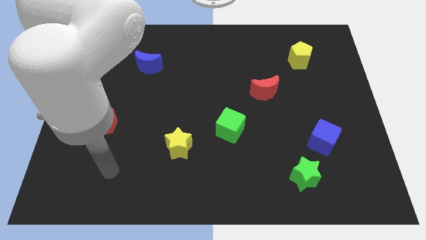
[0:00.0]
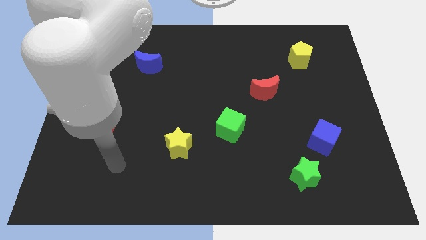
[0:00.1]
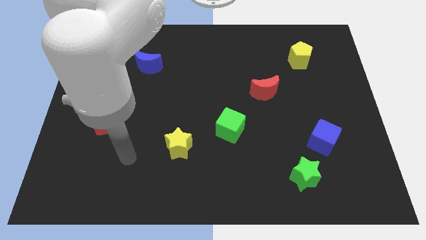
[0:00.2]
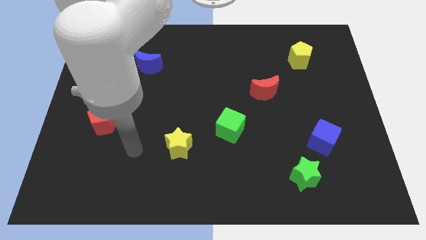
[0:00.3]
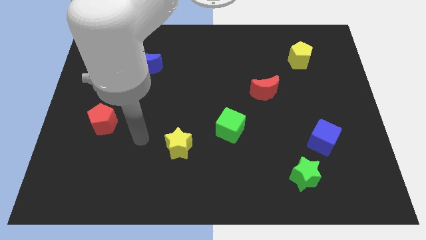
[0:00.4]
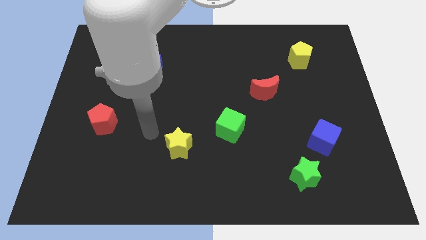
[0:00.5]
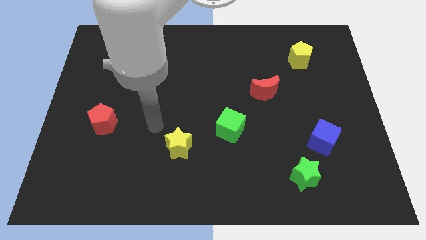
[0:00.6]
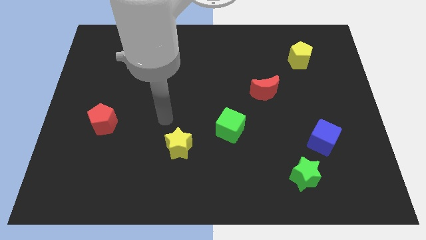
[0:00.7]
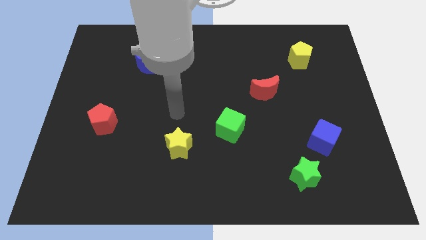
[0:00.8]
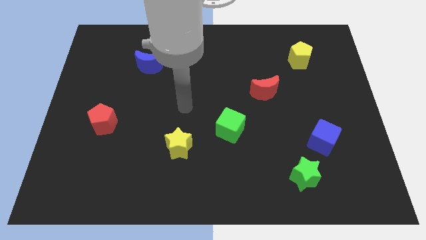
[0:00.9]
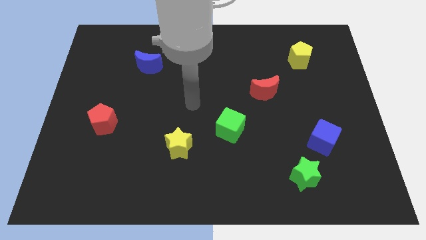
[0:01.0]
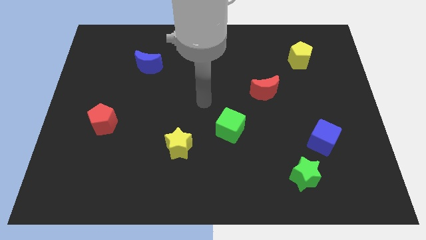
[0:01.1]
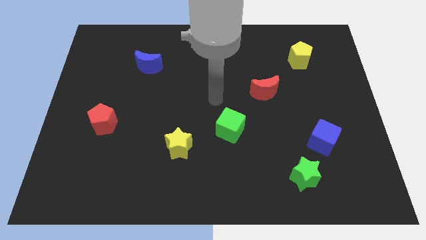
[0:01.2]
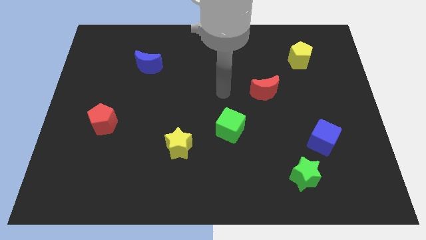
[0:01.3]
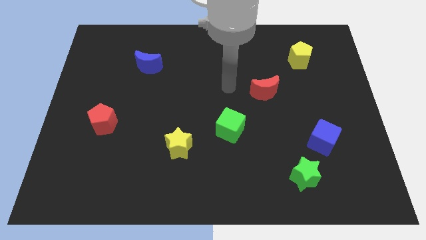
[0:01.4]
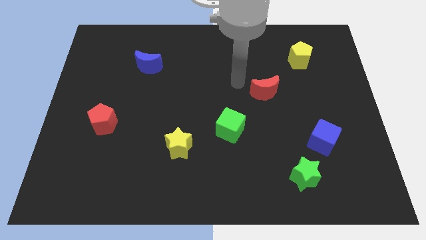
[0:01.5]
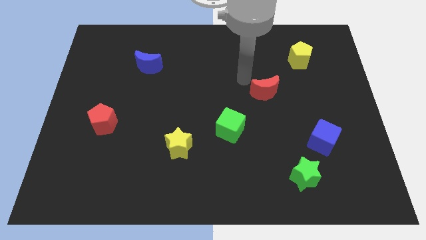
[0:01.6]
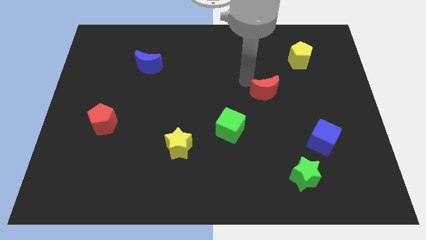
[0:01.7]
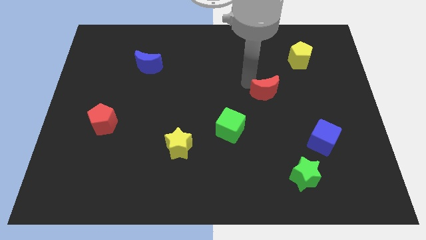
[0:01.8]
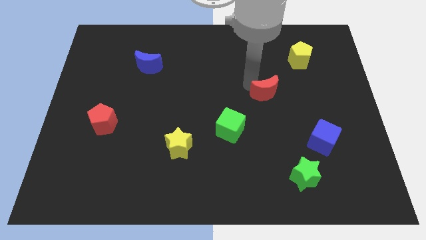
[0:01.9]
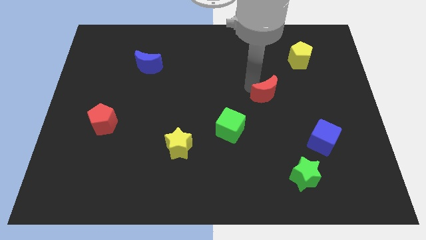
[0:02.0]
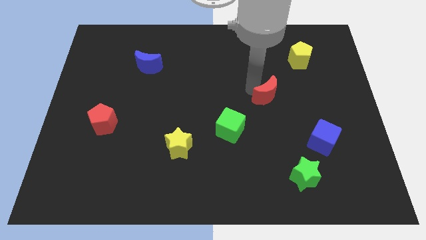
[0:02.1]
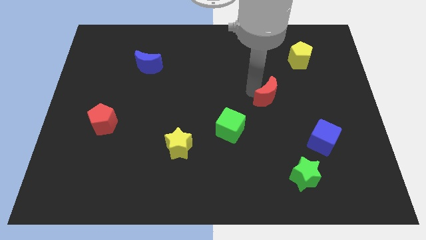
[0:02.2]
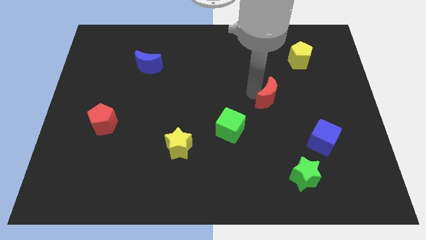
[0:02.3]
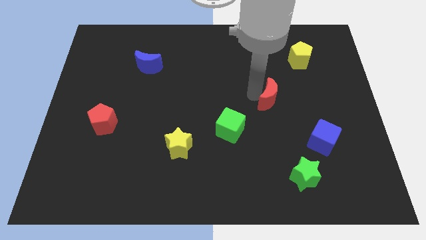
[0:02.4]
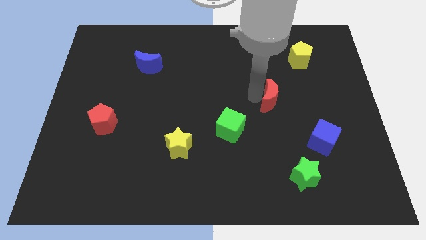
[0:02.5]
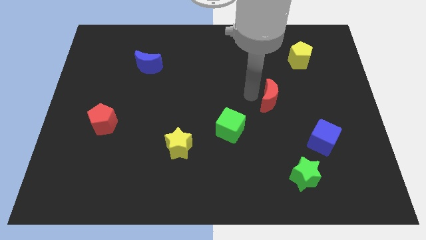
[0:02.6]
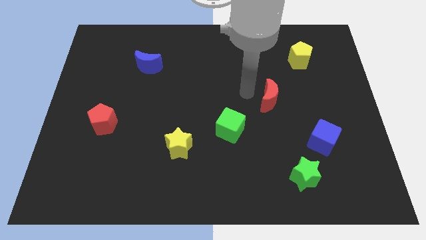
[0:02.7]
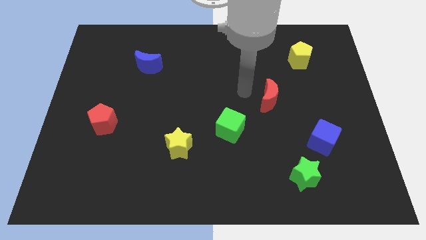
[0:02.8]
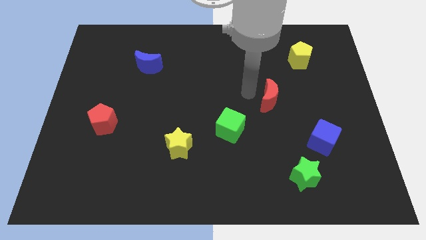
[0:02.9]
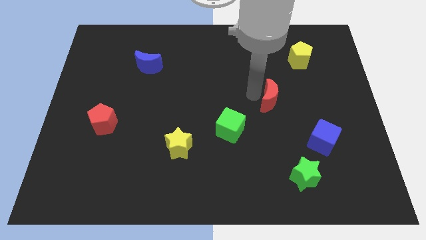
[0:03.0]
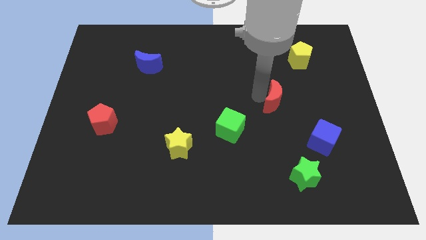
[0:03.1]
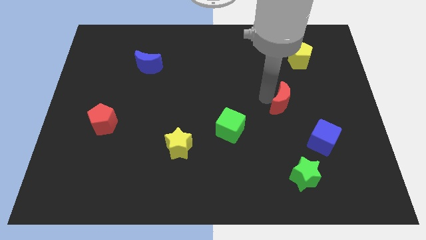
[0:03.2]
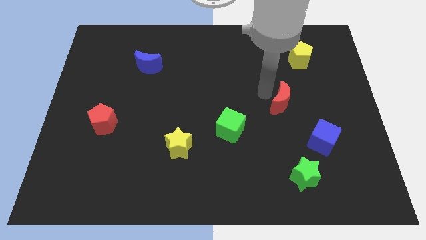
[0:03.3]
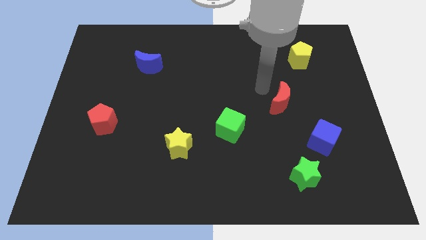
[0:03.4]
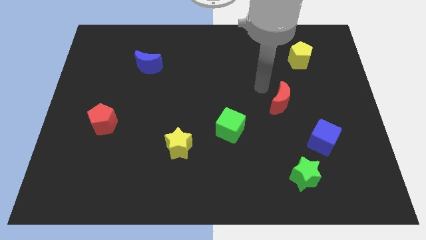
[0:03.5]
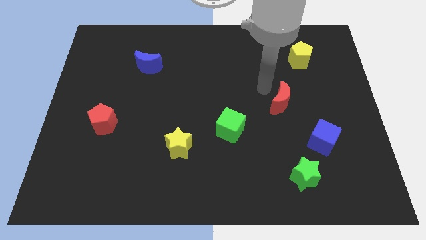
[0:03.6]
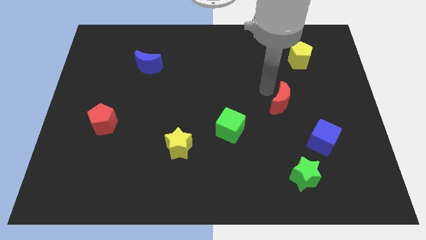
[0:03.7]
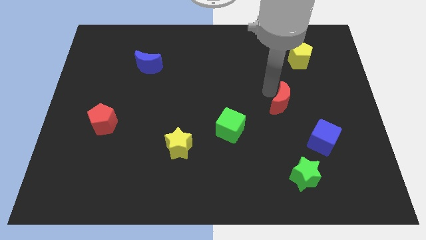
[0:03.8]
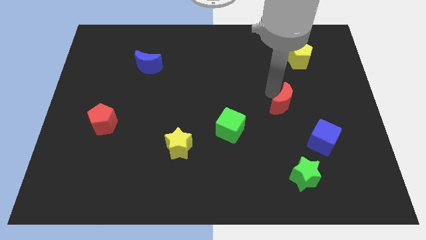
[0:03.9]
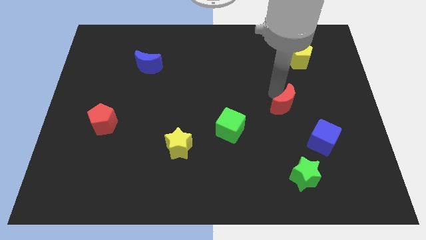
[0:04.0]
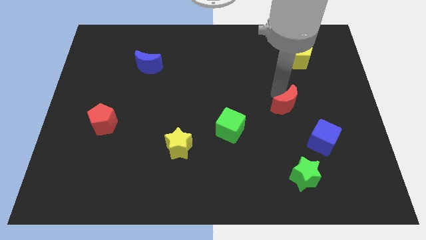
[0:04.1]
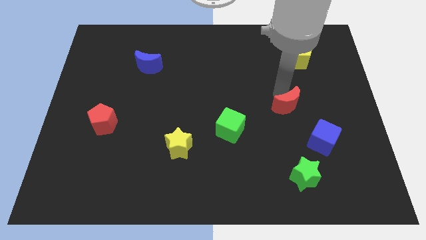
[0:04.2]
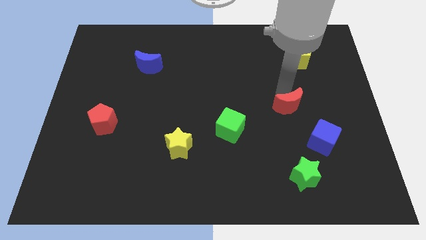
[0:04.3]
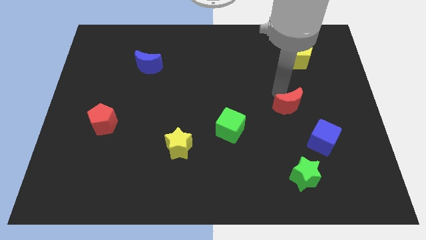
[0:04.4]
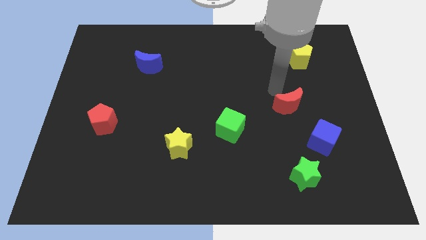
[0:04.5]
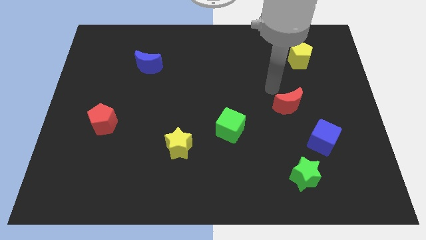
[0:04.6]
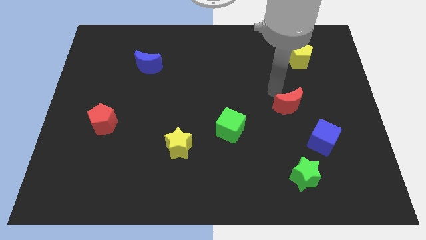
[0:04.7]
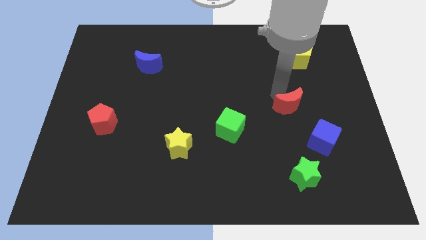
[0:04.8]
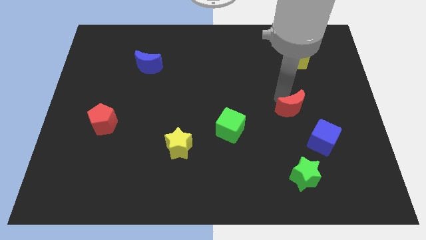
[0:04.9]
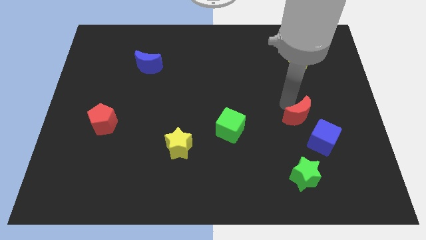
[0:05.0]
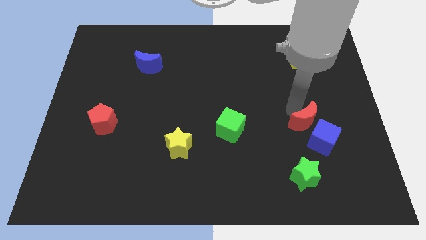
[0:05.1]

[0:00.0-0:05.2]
put the red moon next to the blue cube

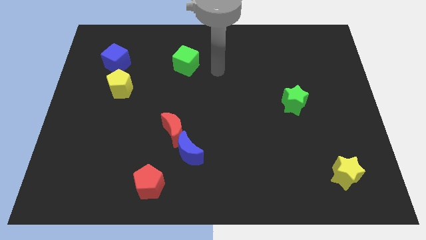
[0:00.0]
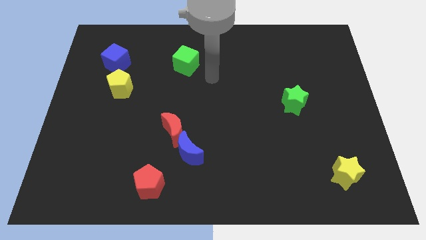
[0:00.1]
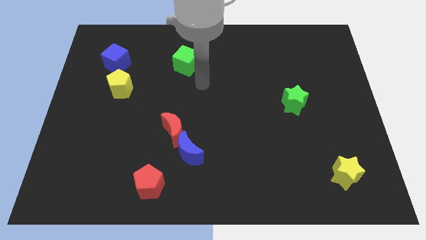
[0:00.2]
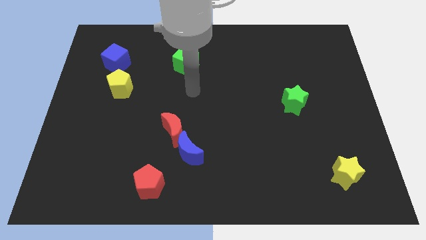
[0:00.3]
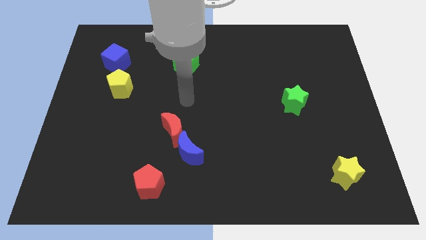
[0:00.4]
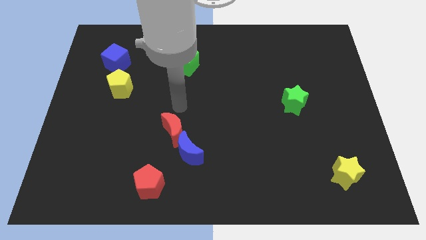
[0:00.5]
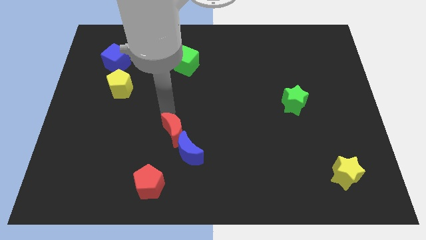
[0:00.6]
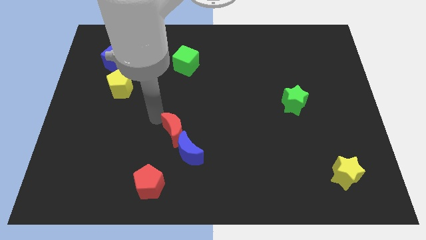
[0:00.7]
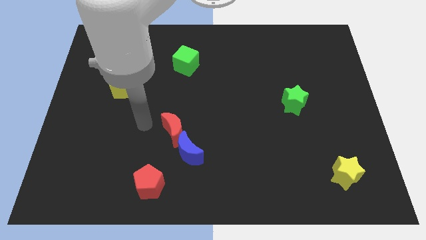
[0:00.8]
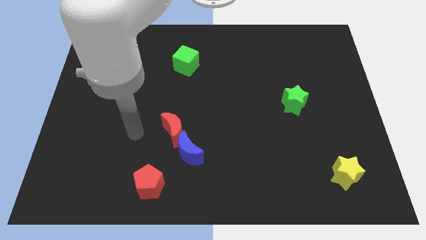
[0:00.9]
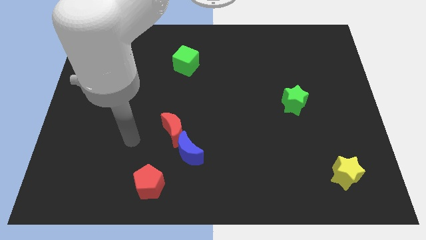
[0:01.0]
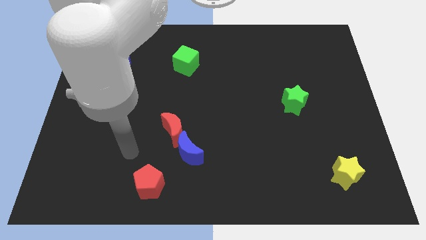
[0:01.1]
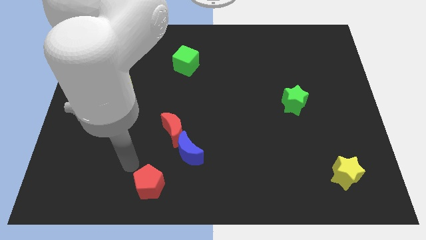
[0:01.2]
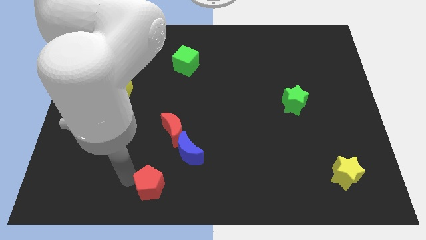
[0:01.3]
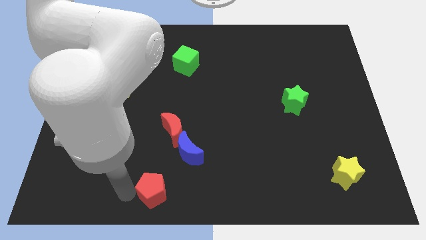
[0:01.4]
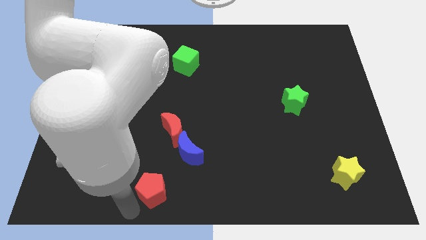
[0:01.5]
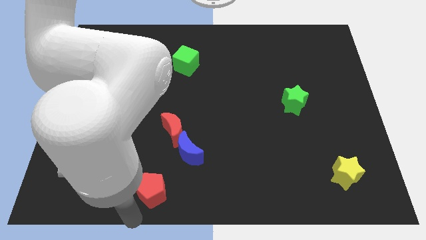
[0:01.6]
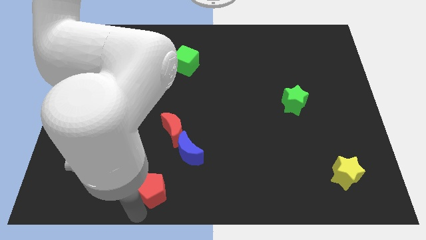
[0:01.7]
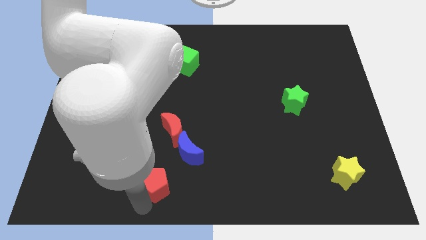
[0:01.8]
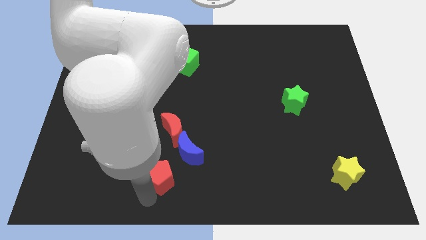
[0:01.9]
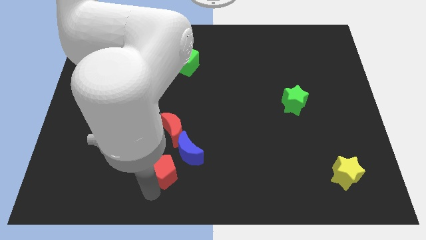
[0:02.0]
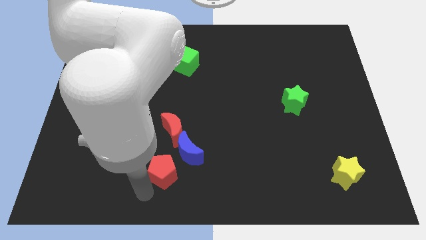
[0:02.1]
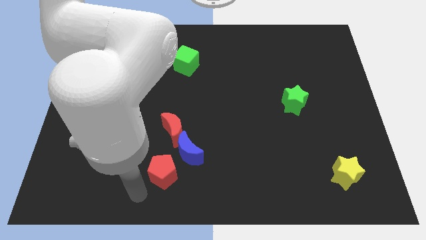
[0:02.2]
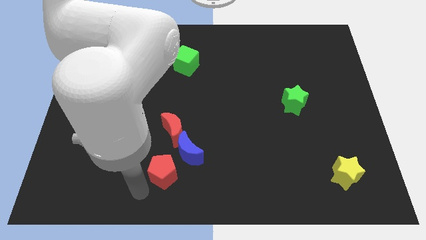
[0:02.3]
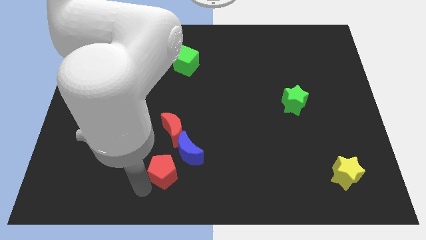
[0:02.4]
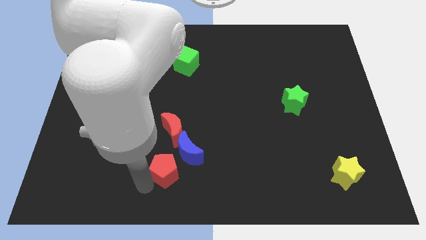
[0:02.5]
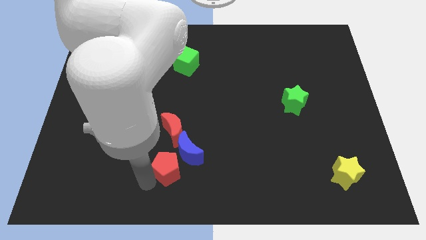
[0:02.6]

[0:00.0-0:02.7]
push the red pentagon towards the blue moon
